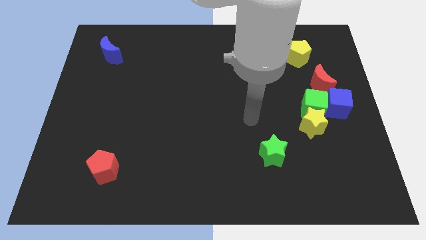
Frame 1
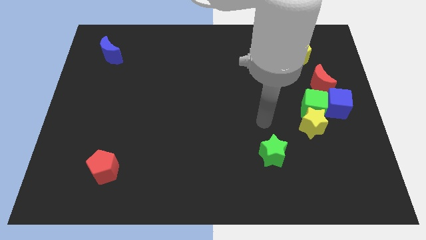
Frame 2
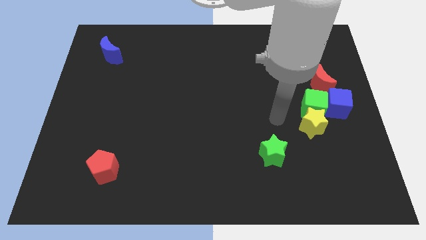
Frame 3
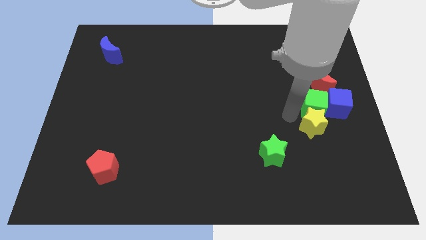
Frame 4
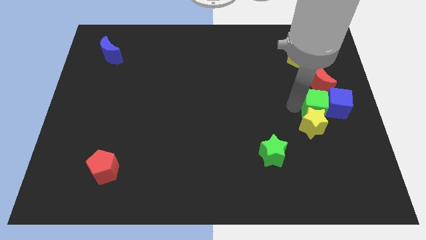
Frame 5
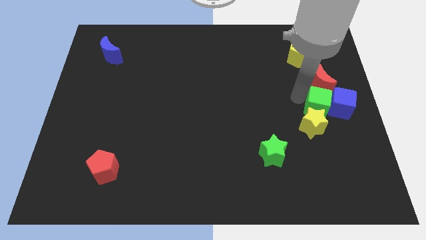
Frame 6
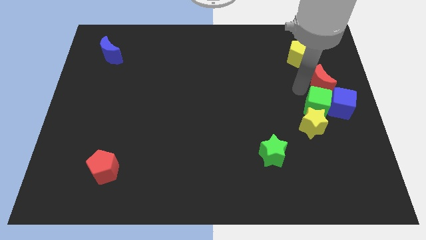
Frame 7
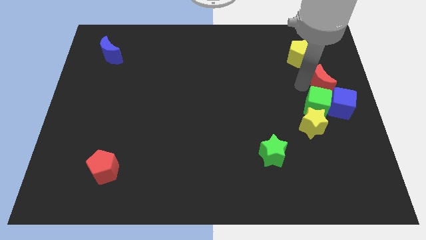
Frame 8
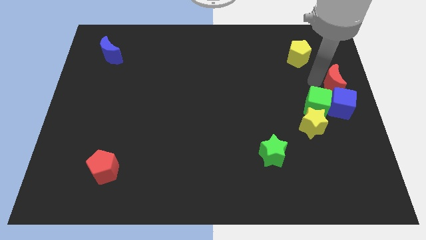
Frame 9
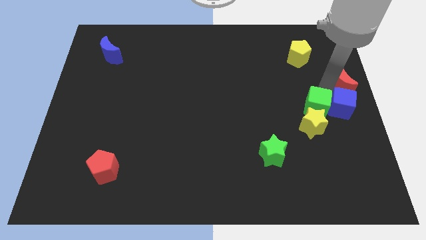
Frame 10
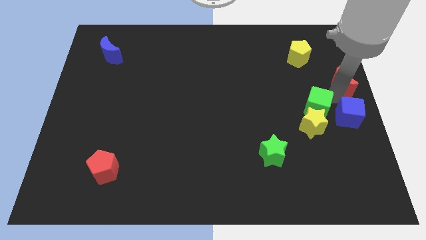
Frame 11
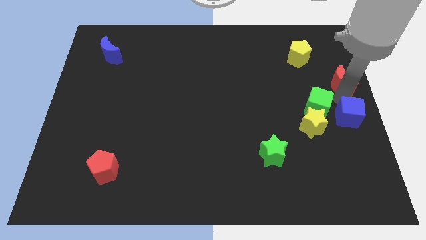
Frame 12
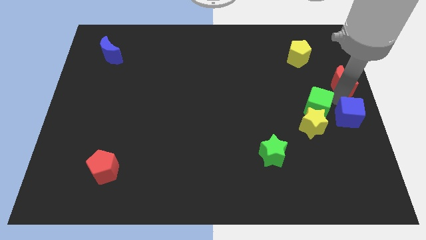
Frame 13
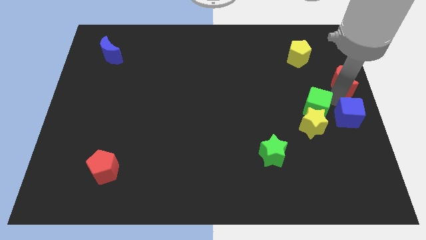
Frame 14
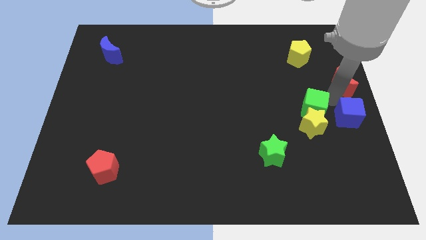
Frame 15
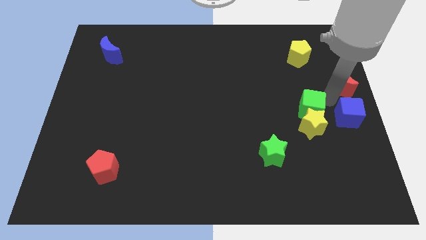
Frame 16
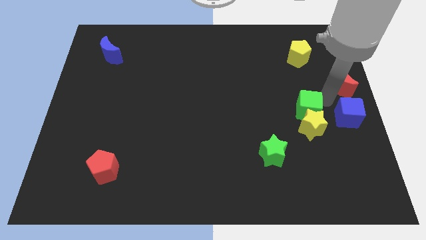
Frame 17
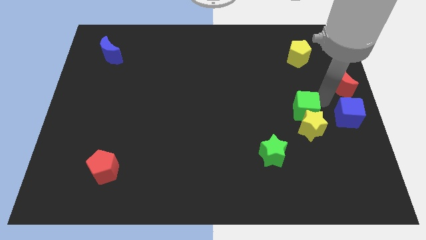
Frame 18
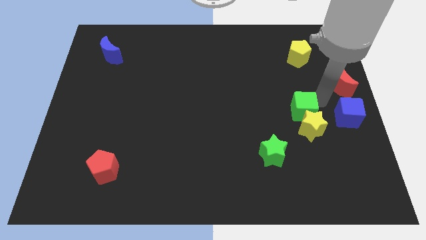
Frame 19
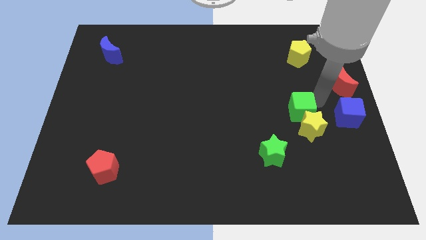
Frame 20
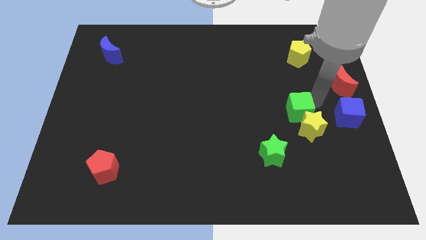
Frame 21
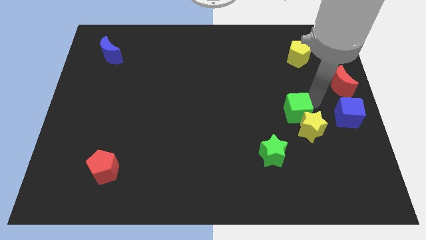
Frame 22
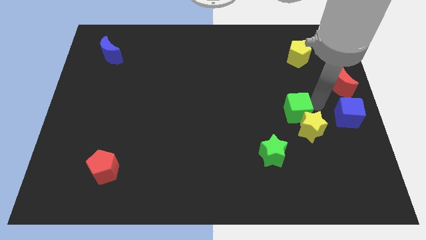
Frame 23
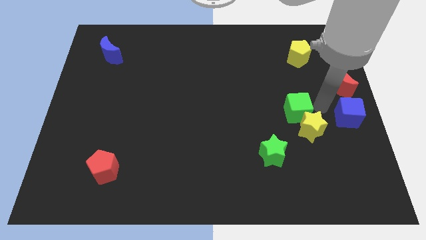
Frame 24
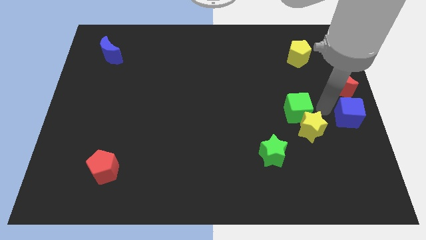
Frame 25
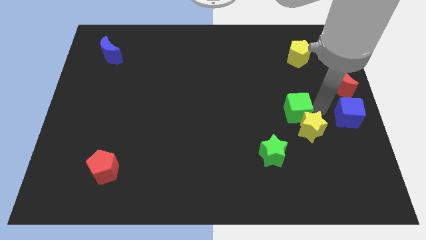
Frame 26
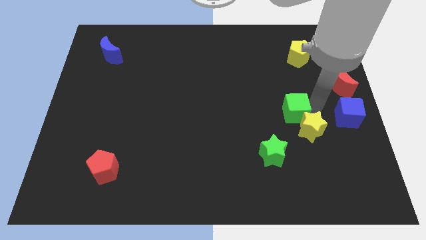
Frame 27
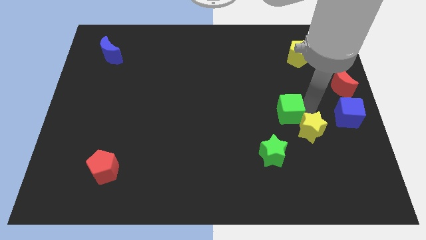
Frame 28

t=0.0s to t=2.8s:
pull the green cube apart from the clump

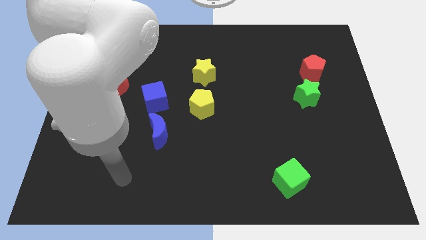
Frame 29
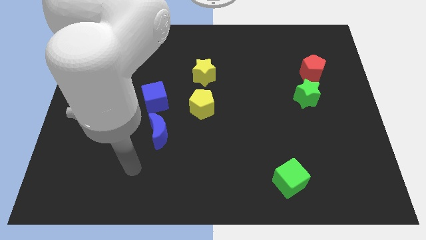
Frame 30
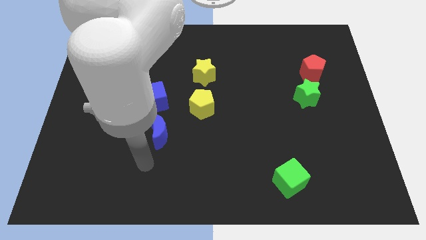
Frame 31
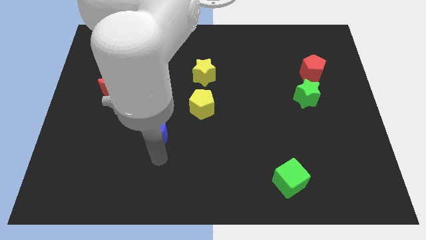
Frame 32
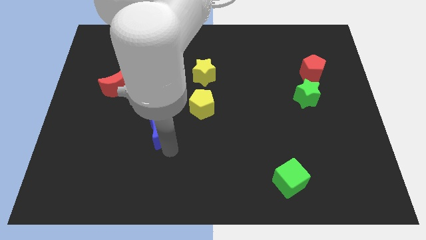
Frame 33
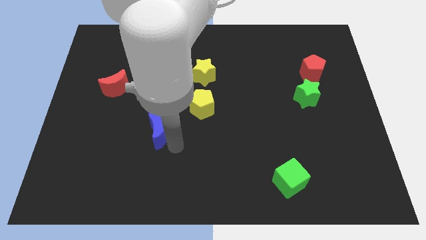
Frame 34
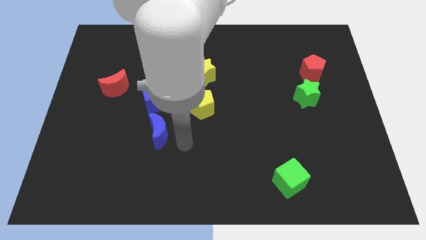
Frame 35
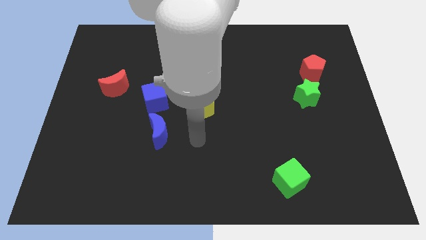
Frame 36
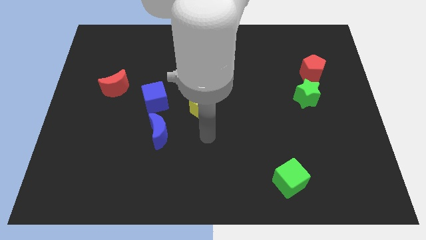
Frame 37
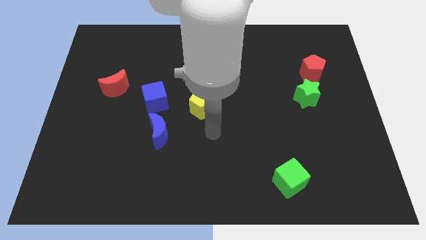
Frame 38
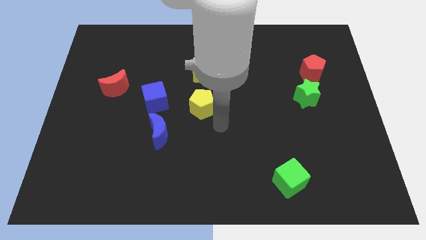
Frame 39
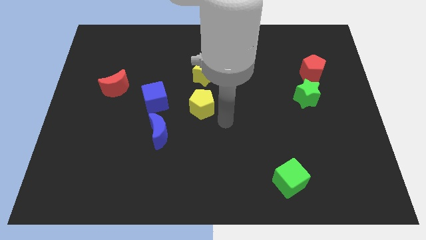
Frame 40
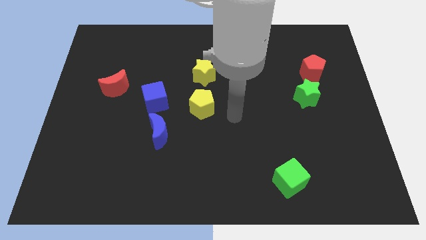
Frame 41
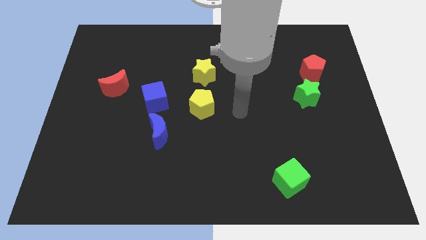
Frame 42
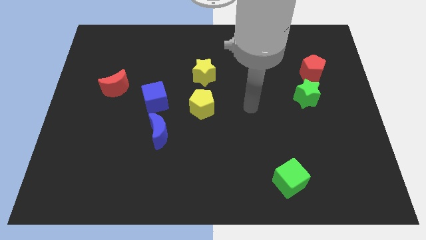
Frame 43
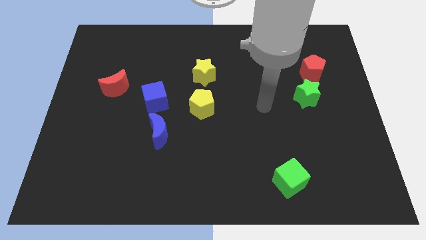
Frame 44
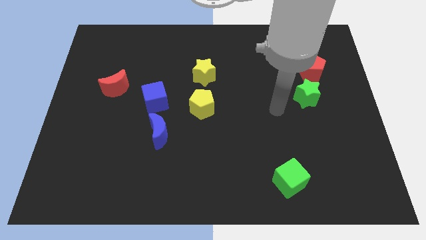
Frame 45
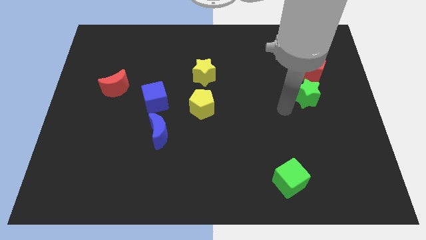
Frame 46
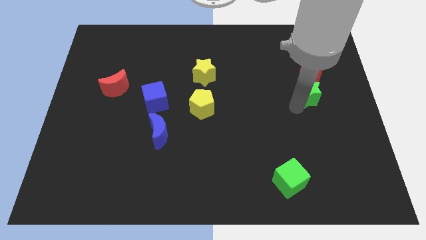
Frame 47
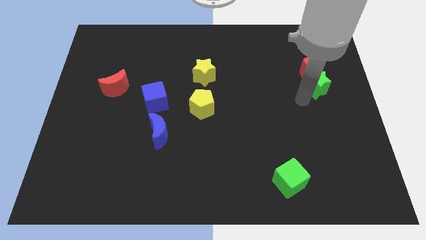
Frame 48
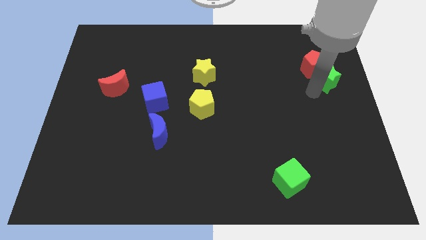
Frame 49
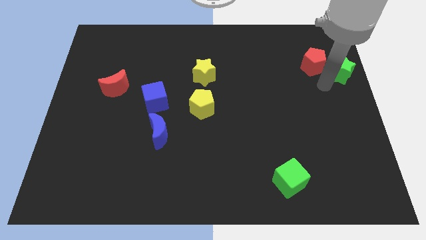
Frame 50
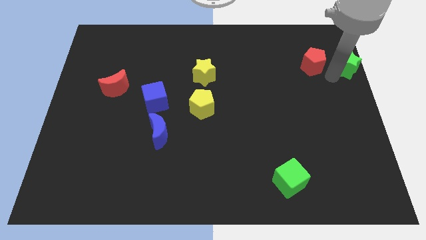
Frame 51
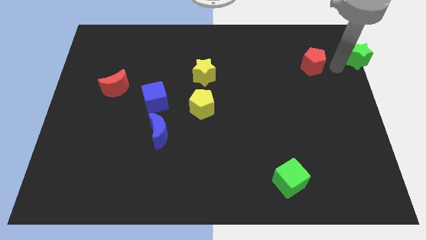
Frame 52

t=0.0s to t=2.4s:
move the red pentagon away from the green star

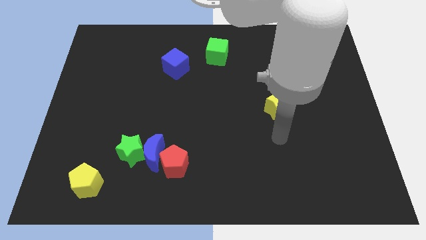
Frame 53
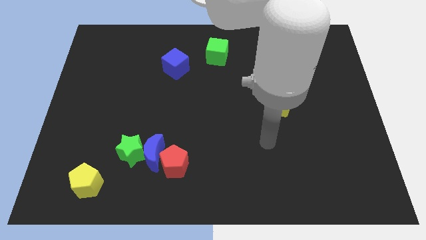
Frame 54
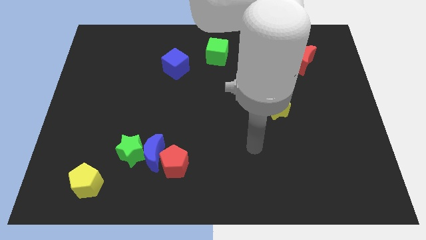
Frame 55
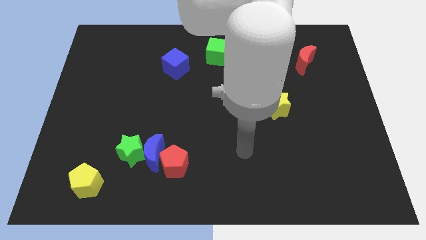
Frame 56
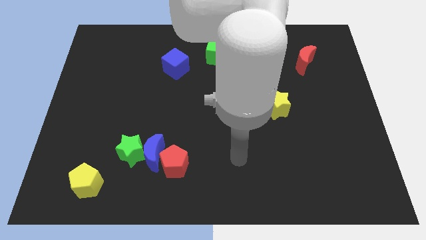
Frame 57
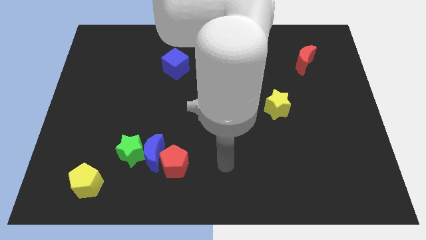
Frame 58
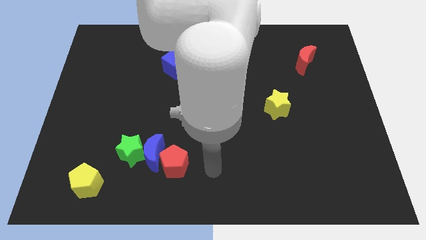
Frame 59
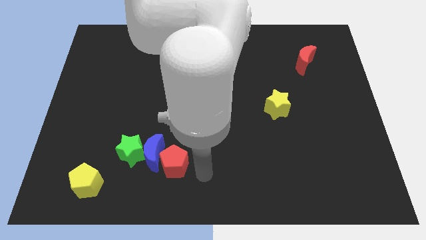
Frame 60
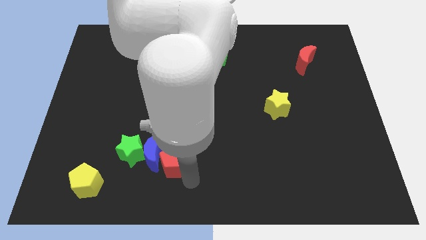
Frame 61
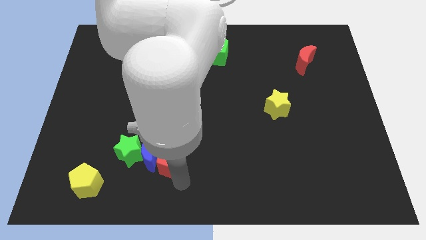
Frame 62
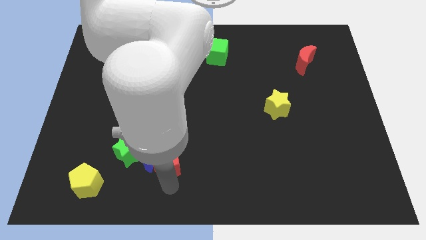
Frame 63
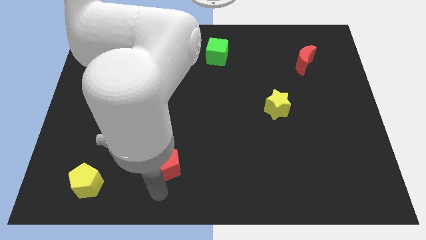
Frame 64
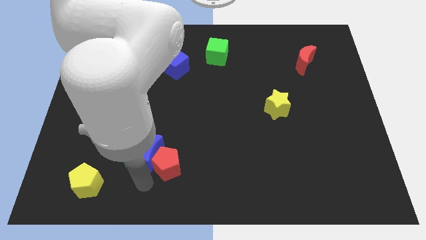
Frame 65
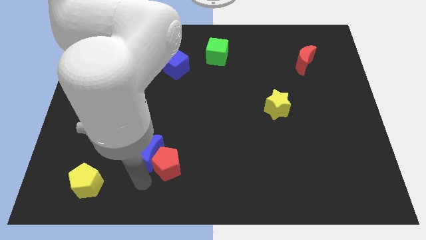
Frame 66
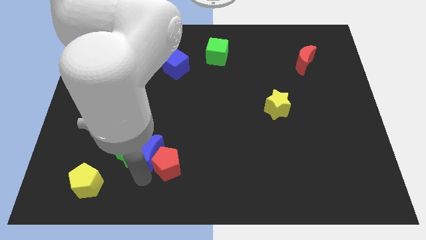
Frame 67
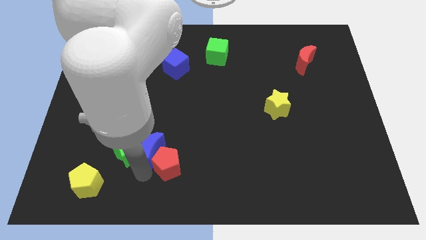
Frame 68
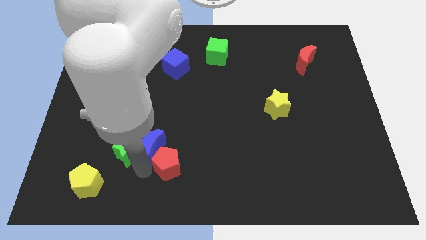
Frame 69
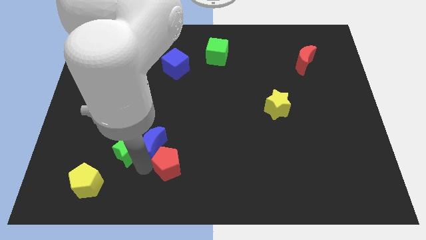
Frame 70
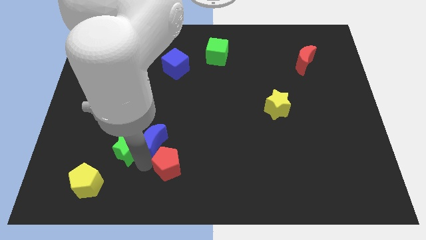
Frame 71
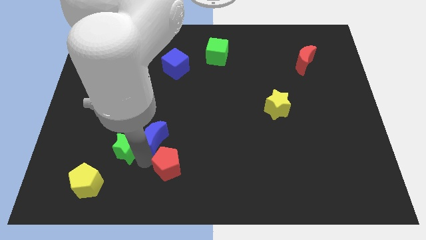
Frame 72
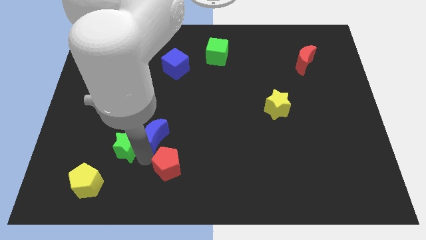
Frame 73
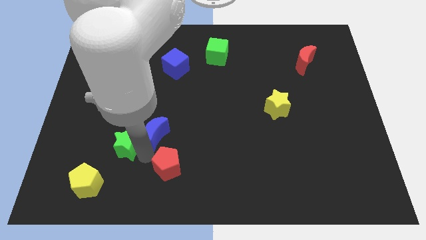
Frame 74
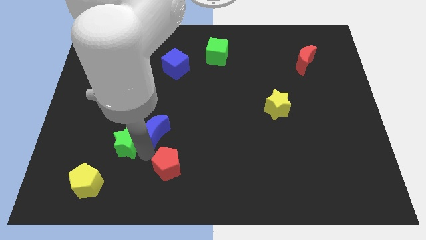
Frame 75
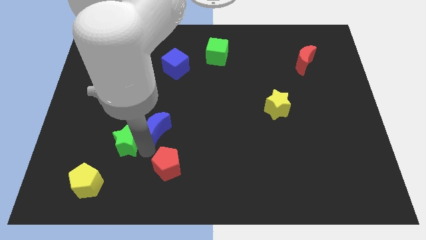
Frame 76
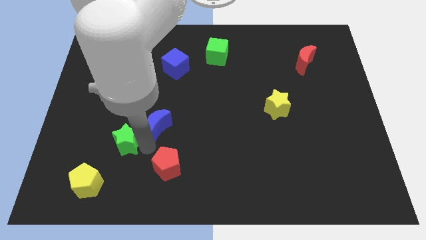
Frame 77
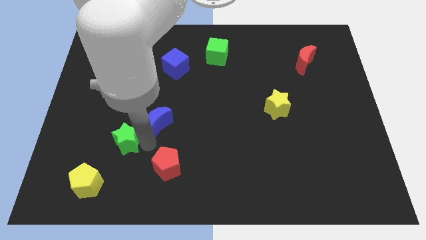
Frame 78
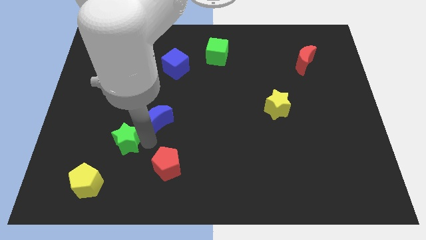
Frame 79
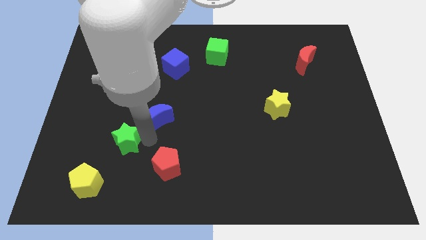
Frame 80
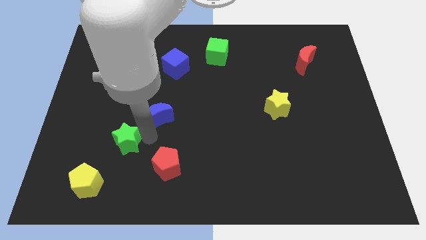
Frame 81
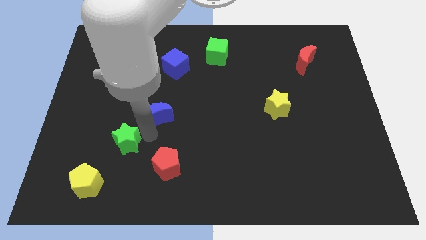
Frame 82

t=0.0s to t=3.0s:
move the blue moon away from the green star and red pentagon

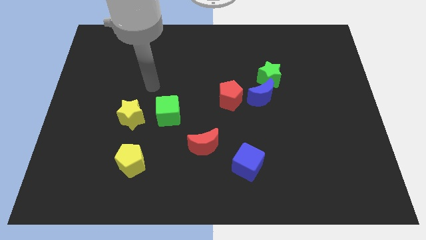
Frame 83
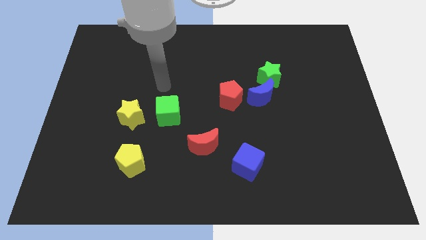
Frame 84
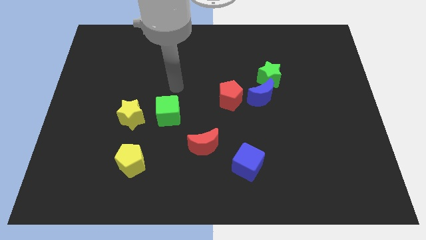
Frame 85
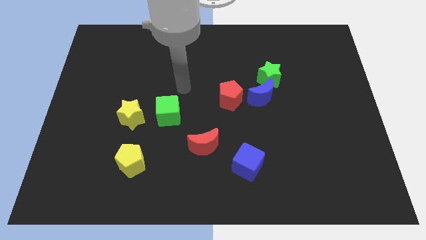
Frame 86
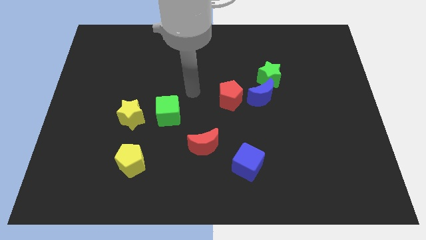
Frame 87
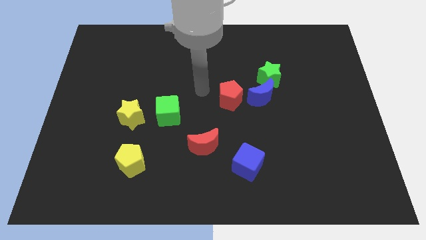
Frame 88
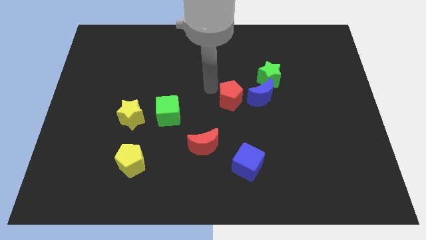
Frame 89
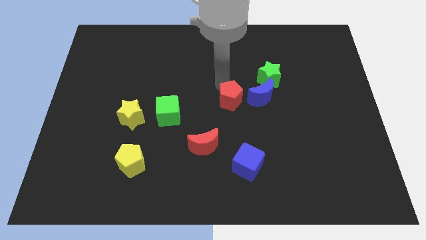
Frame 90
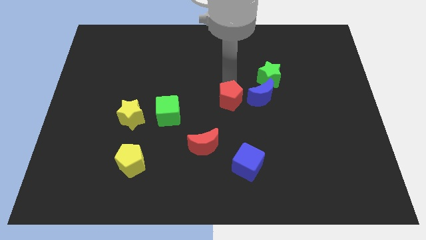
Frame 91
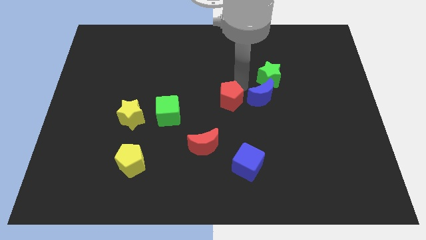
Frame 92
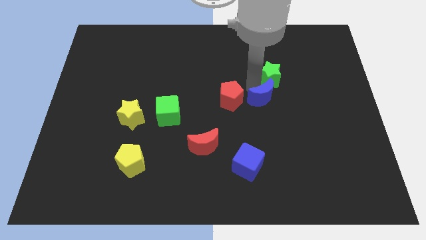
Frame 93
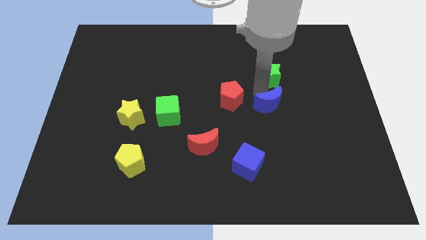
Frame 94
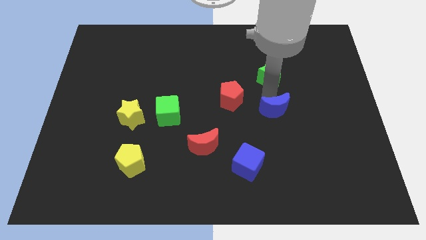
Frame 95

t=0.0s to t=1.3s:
separate the green star from the blue moon

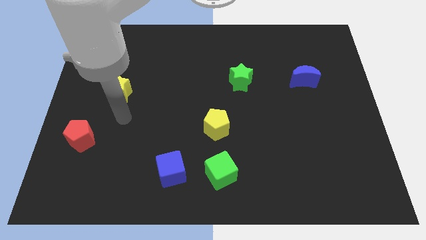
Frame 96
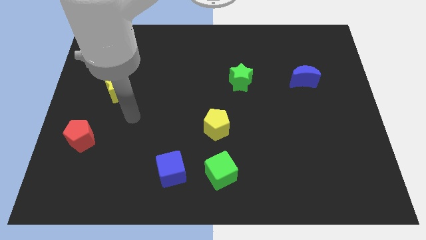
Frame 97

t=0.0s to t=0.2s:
pull the blue cube apart from the green cube
